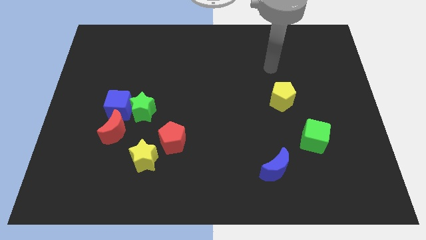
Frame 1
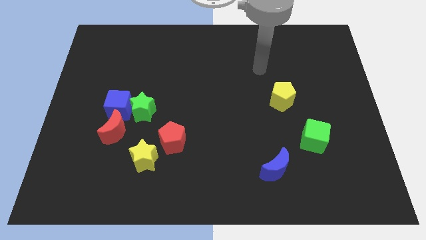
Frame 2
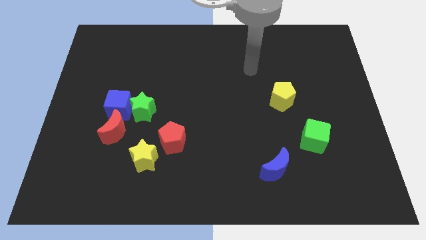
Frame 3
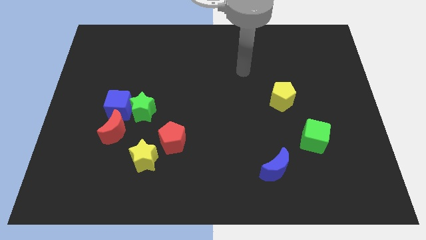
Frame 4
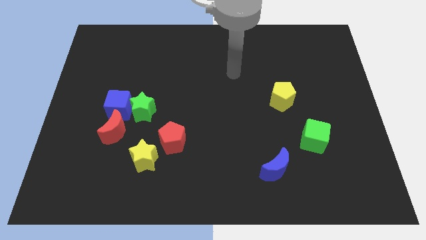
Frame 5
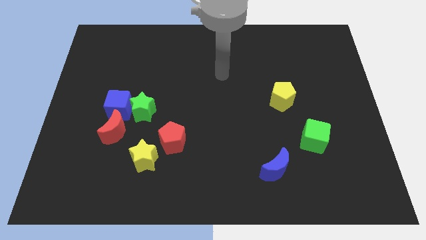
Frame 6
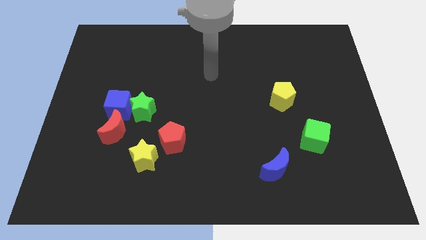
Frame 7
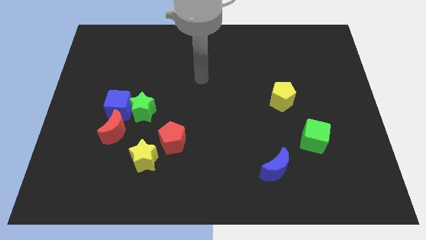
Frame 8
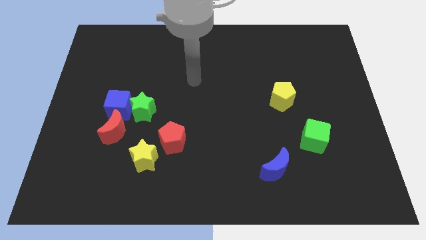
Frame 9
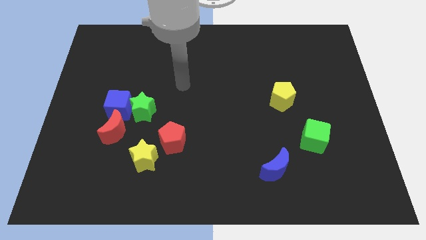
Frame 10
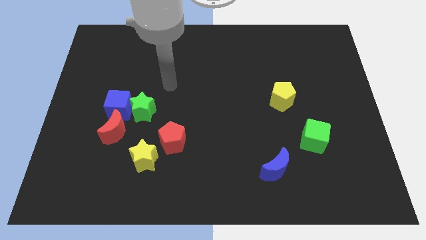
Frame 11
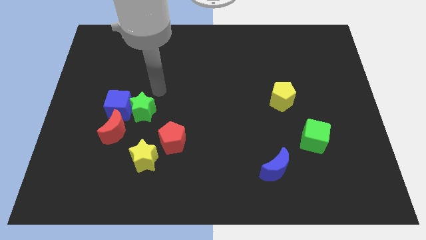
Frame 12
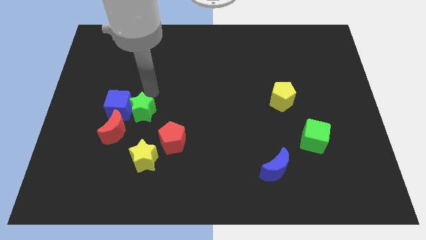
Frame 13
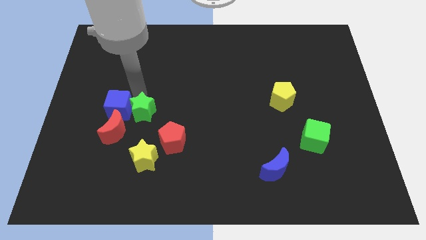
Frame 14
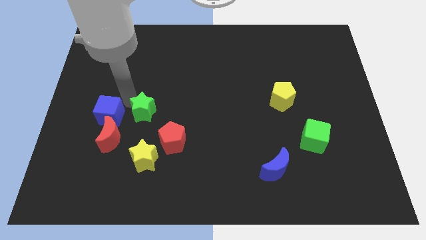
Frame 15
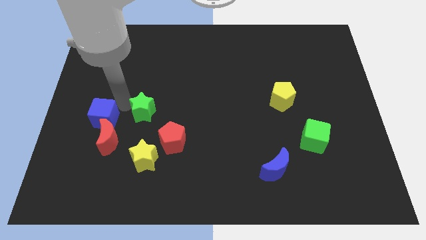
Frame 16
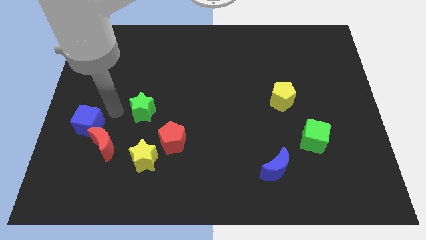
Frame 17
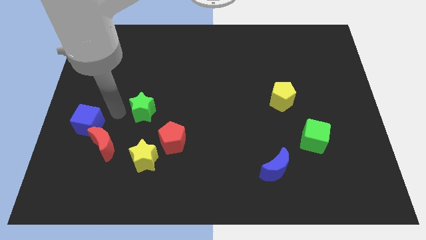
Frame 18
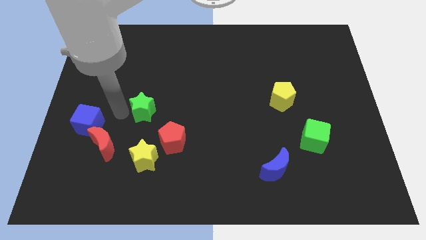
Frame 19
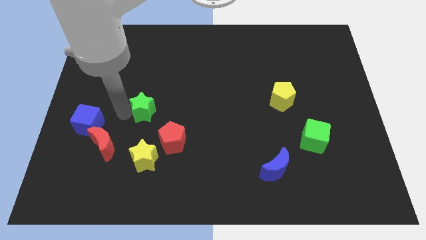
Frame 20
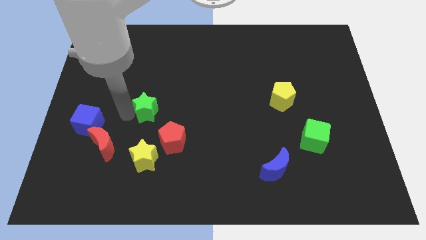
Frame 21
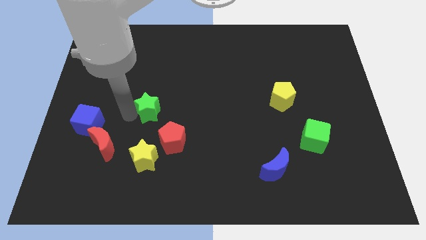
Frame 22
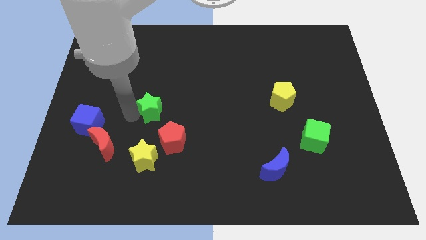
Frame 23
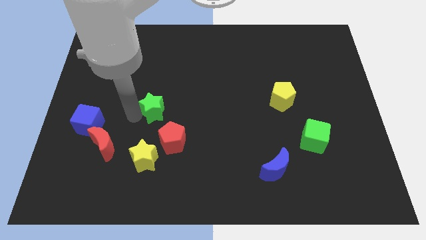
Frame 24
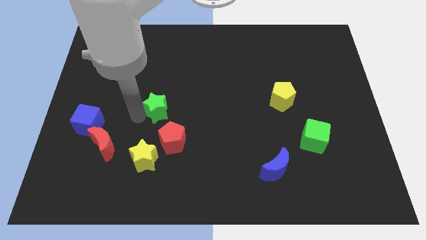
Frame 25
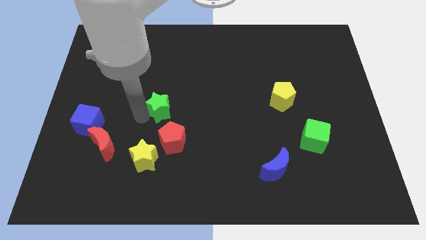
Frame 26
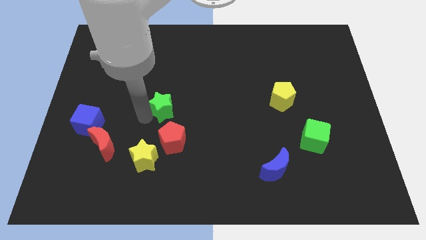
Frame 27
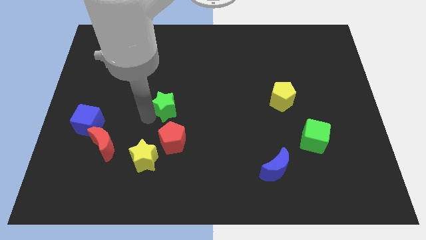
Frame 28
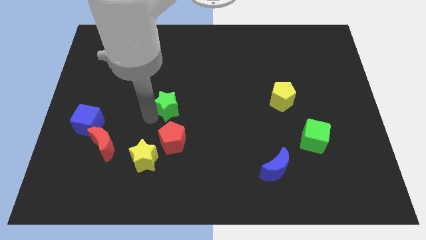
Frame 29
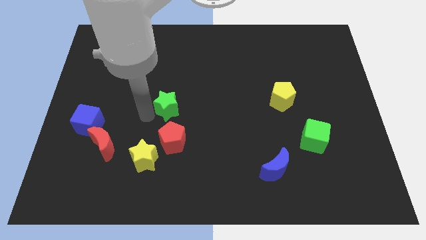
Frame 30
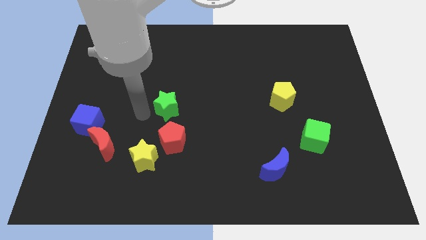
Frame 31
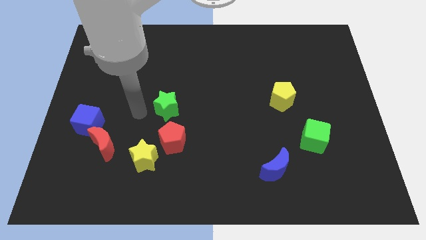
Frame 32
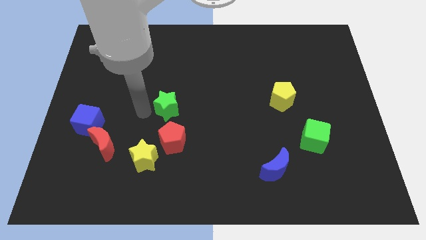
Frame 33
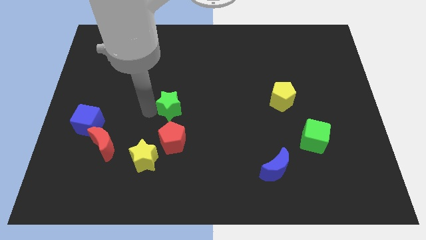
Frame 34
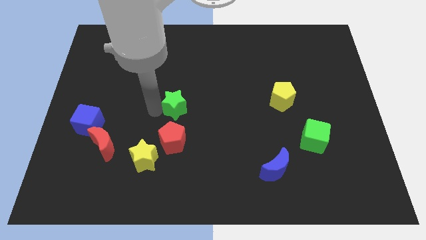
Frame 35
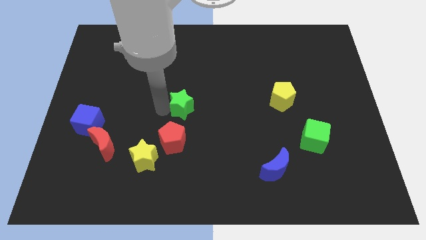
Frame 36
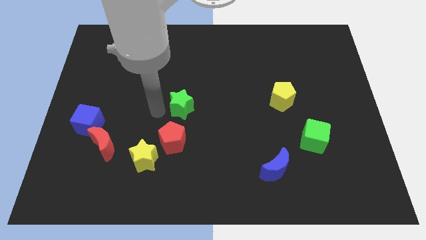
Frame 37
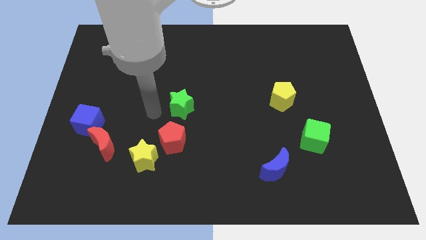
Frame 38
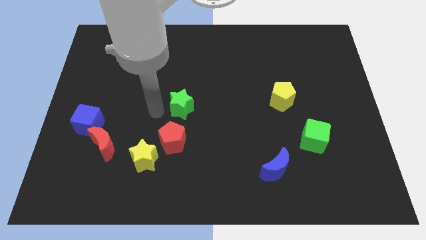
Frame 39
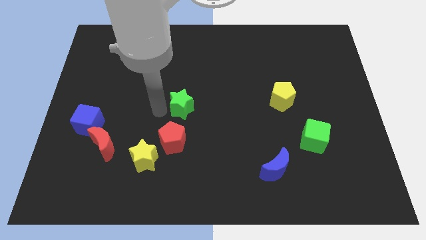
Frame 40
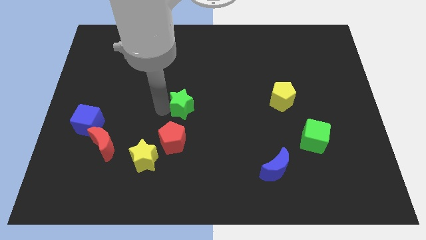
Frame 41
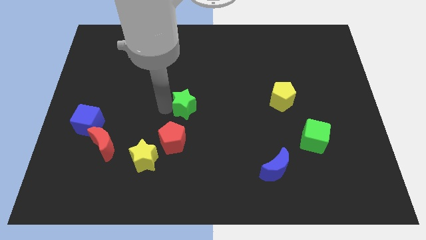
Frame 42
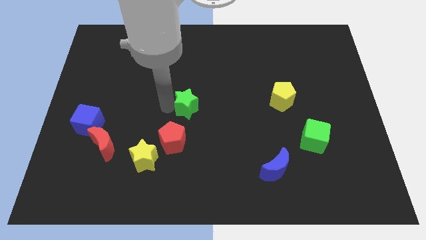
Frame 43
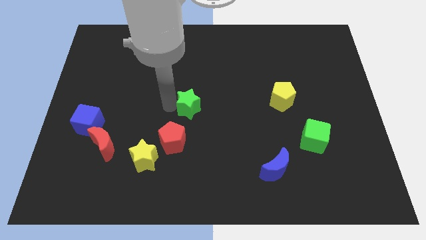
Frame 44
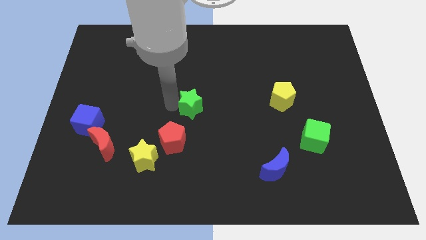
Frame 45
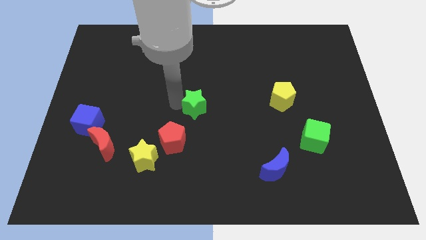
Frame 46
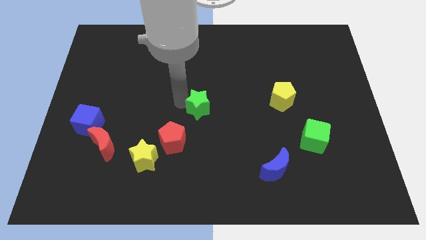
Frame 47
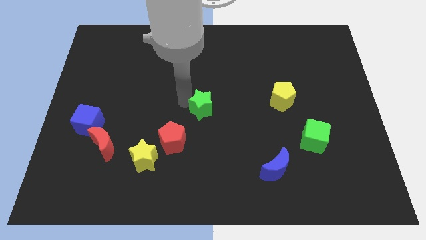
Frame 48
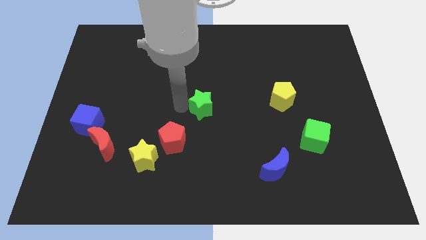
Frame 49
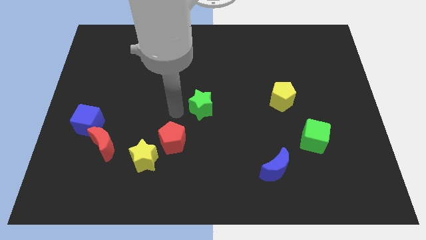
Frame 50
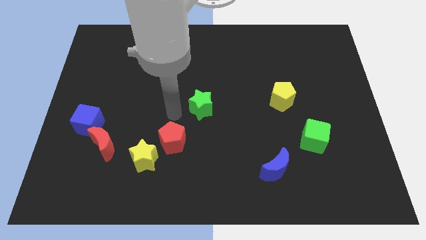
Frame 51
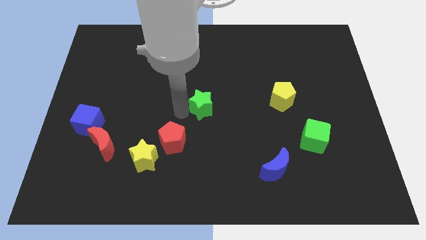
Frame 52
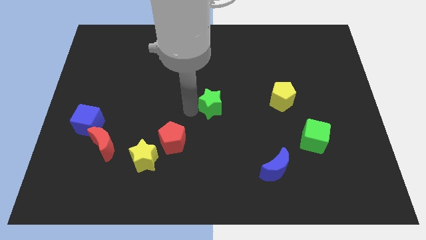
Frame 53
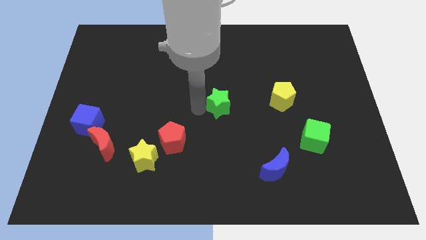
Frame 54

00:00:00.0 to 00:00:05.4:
move the green star to the left side of the yellow pentagon

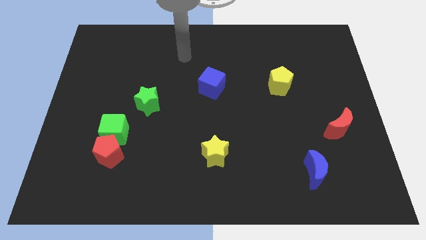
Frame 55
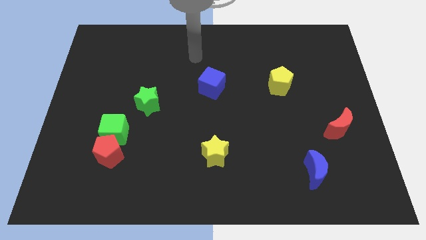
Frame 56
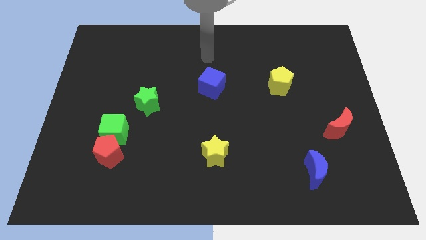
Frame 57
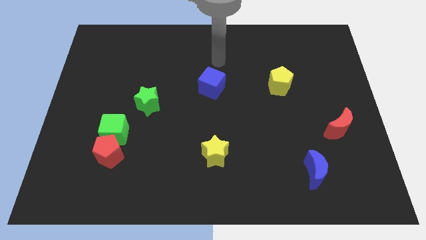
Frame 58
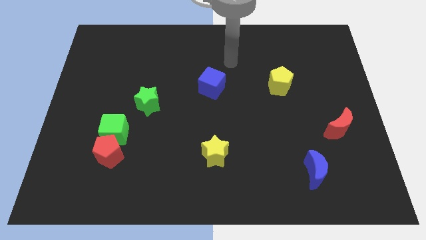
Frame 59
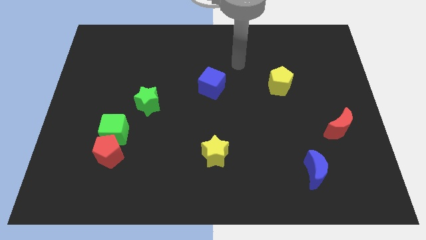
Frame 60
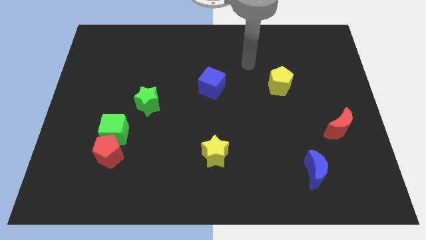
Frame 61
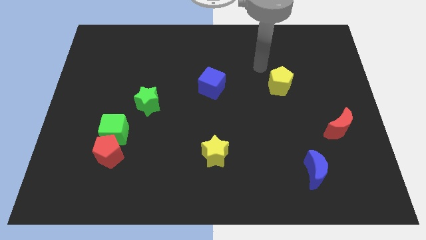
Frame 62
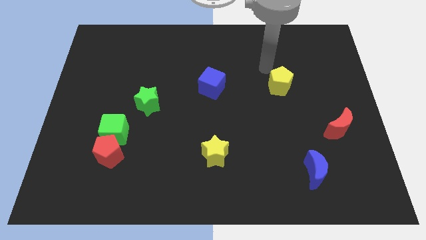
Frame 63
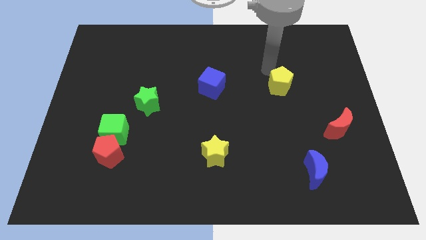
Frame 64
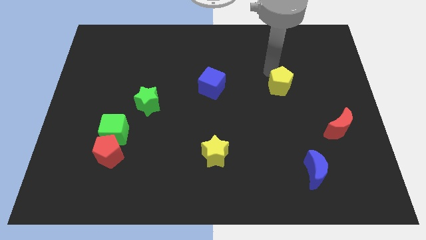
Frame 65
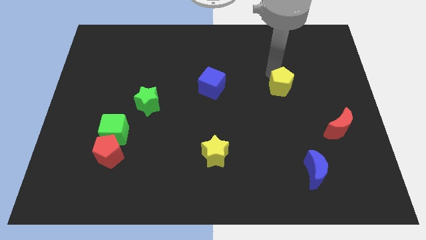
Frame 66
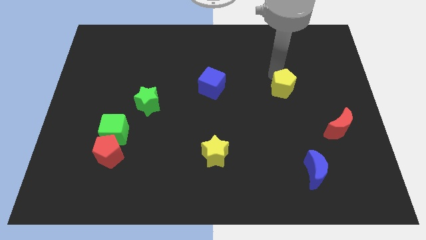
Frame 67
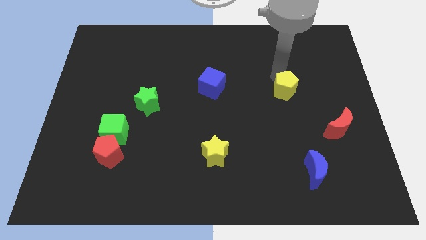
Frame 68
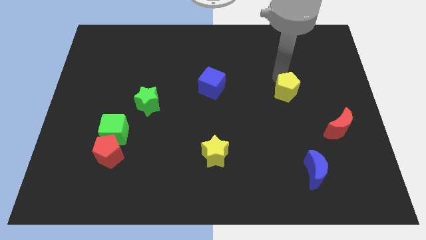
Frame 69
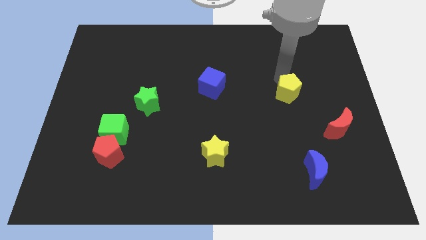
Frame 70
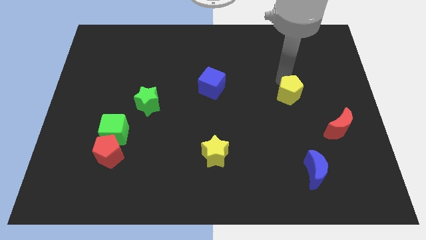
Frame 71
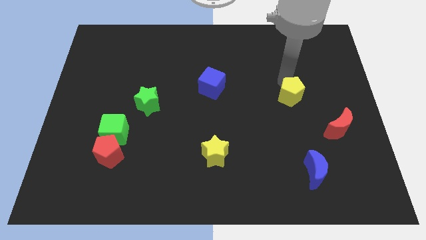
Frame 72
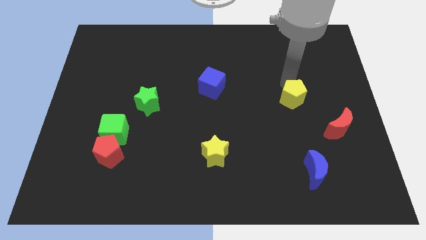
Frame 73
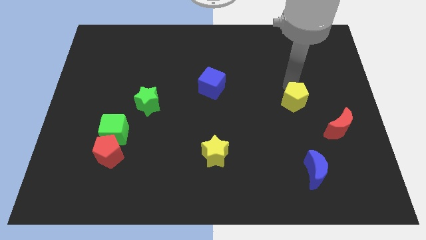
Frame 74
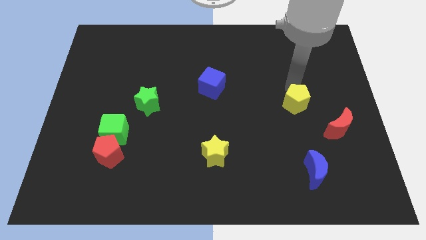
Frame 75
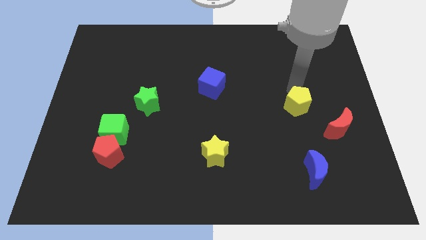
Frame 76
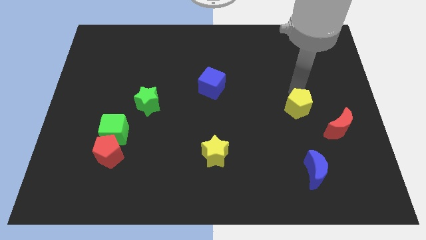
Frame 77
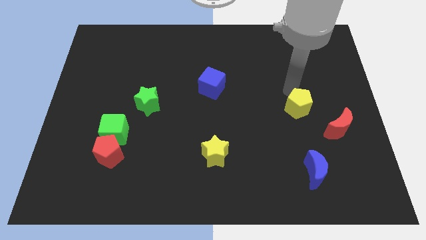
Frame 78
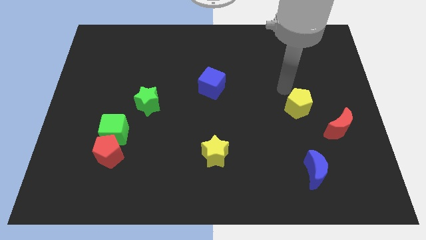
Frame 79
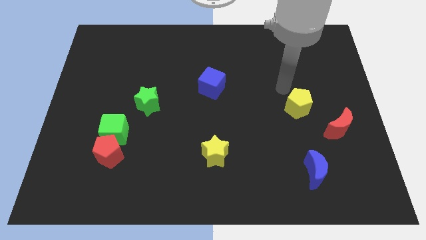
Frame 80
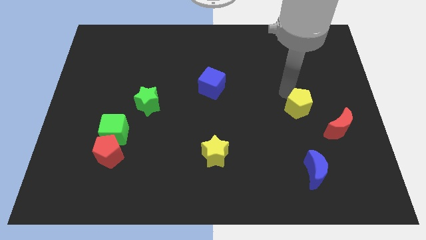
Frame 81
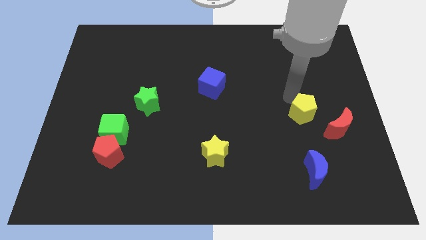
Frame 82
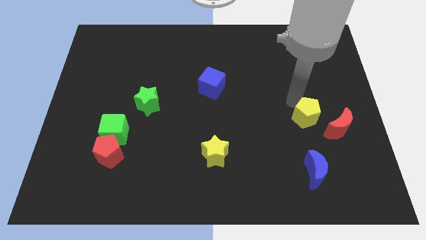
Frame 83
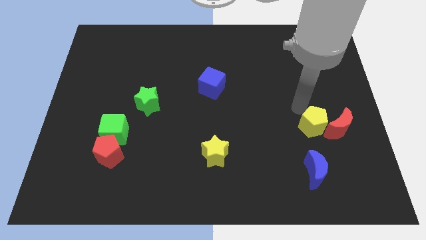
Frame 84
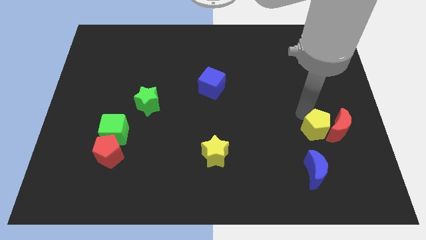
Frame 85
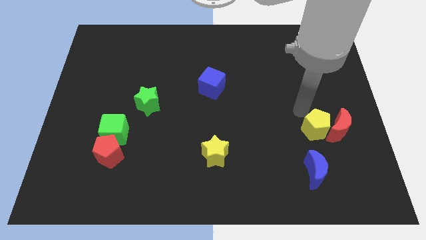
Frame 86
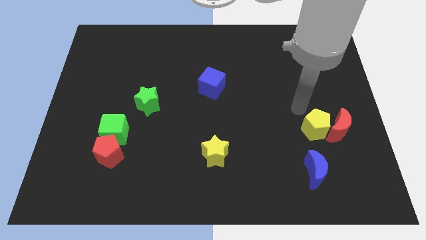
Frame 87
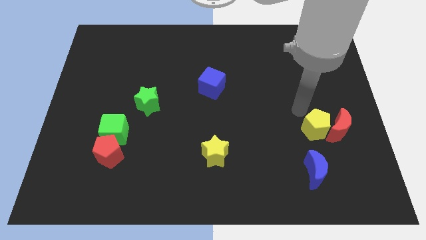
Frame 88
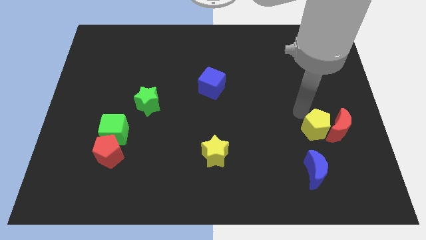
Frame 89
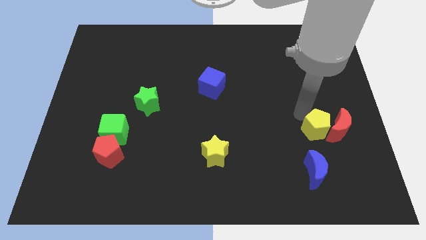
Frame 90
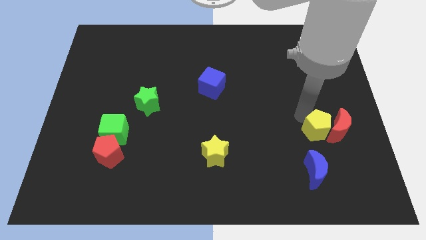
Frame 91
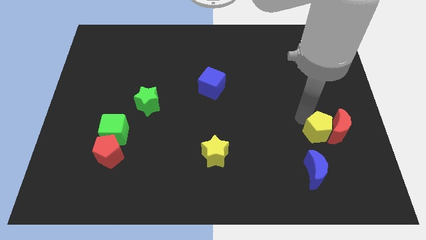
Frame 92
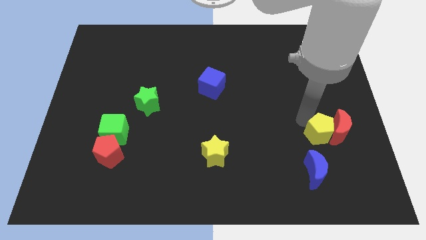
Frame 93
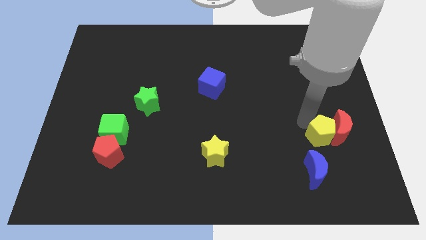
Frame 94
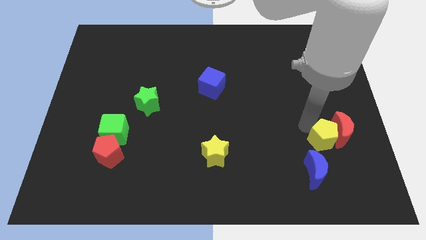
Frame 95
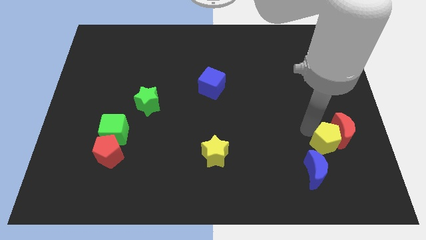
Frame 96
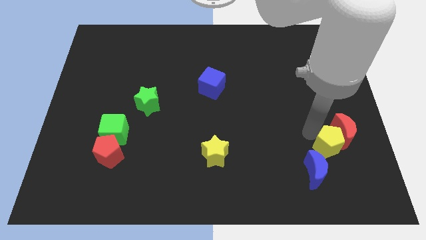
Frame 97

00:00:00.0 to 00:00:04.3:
slide the yellow pentagon to the bottom side of the red moon
